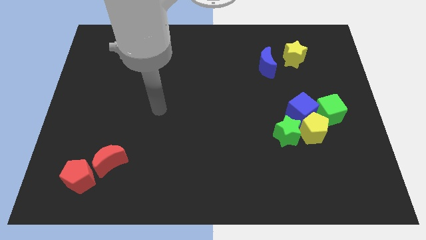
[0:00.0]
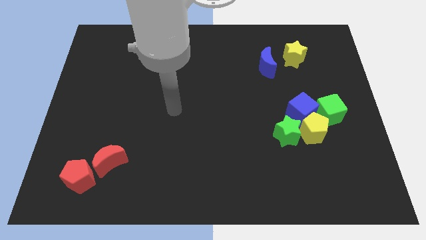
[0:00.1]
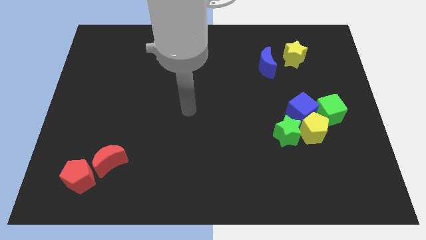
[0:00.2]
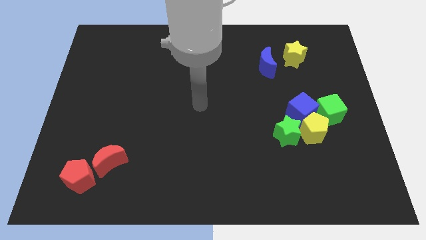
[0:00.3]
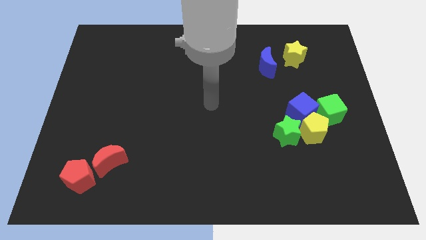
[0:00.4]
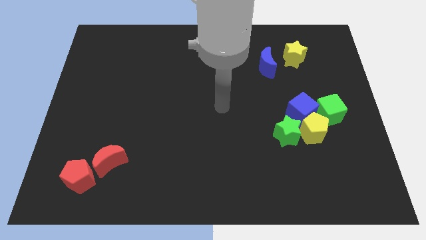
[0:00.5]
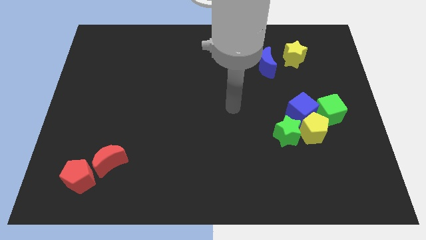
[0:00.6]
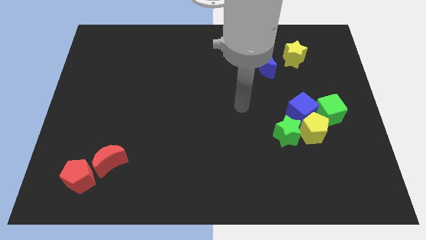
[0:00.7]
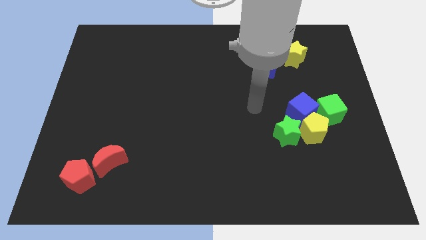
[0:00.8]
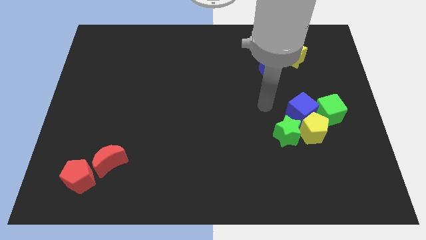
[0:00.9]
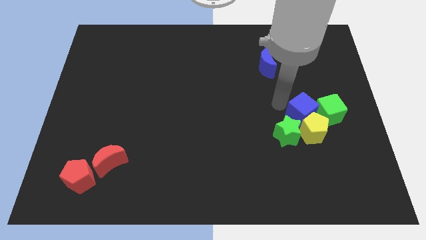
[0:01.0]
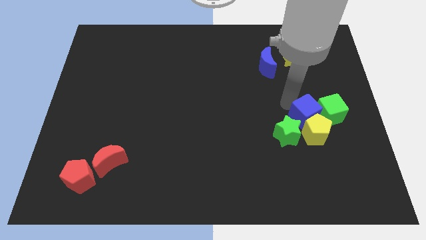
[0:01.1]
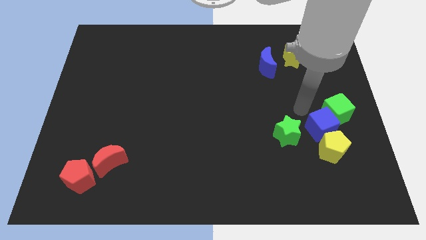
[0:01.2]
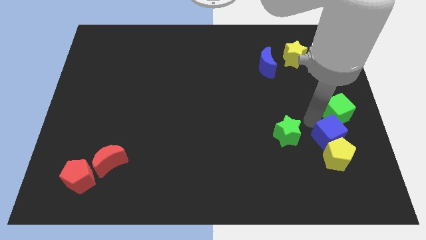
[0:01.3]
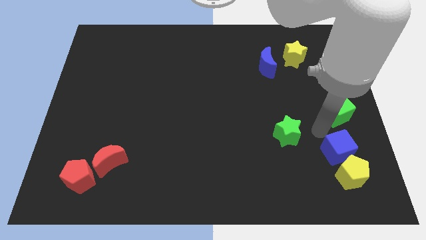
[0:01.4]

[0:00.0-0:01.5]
move the yellow pentagon away from the blue cube, green star, and green cube

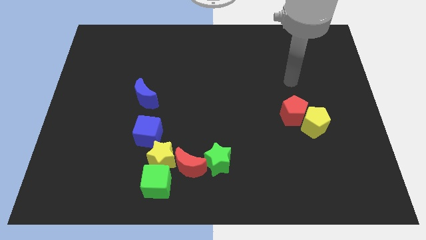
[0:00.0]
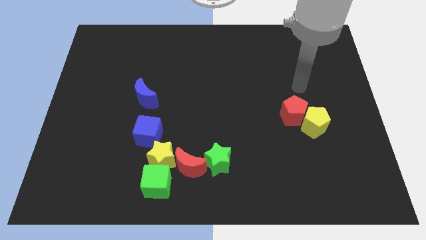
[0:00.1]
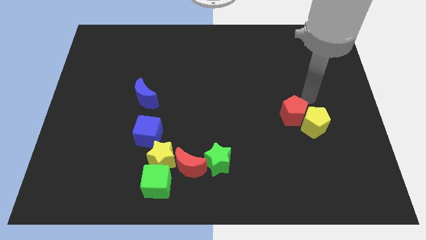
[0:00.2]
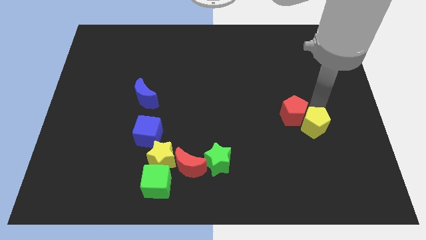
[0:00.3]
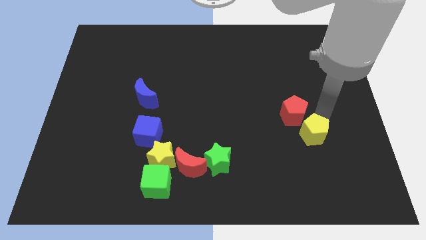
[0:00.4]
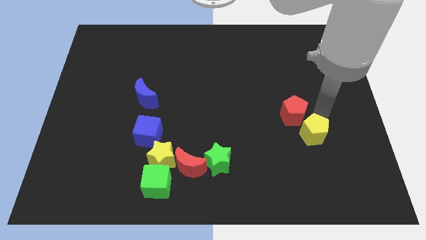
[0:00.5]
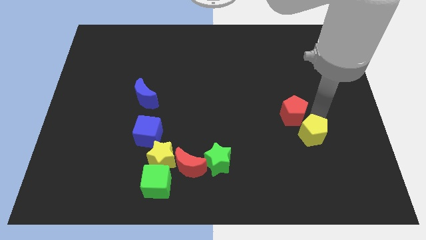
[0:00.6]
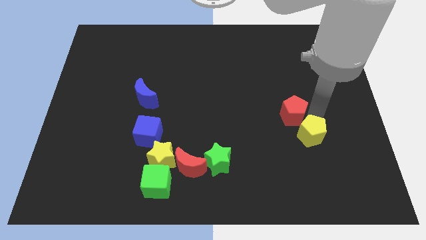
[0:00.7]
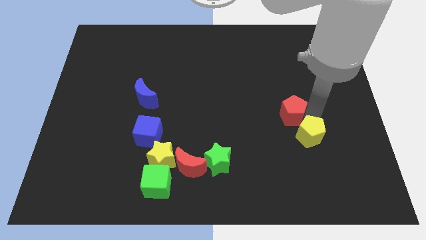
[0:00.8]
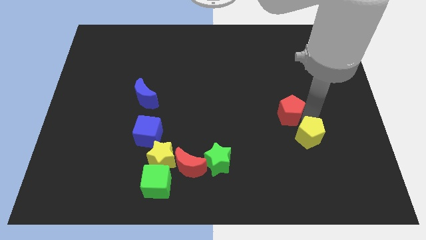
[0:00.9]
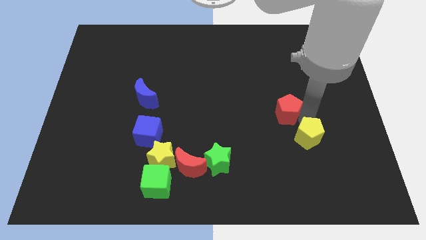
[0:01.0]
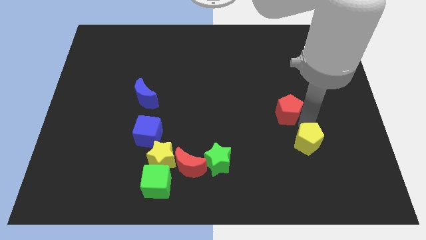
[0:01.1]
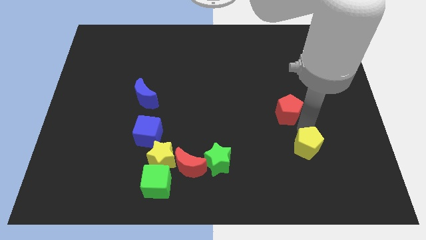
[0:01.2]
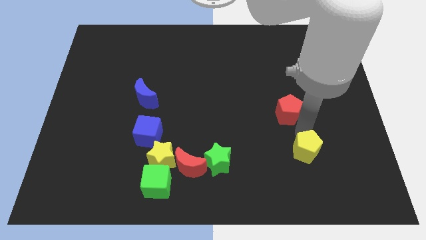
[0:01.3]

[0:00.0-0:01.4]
pull the red pentagon apart from the yellow pentagon

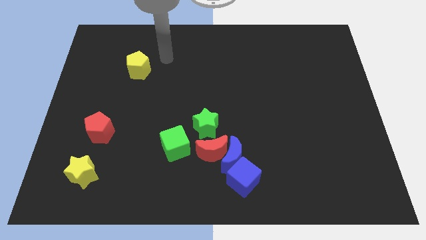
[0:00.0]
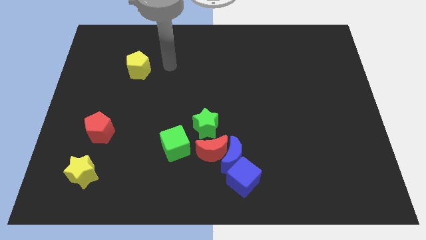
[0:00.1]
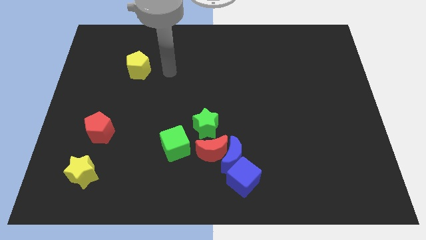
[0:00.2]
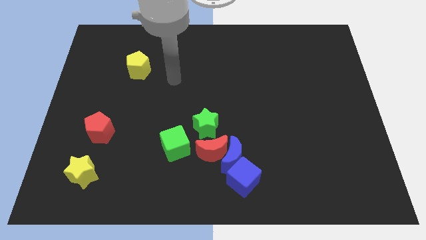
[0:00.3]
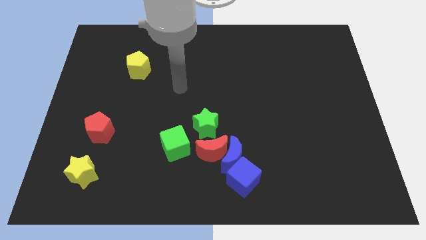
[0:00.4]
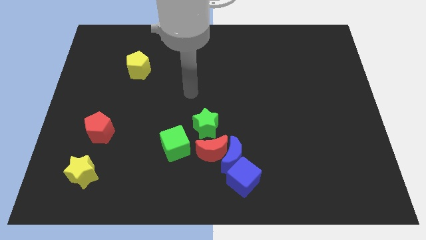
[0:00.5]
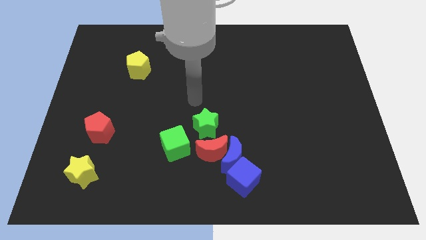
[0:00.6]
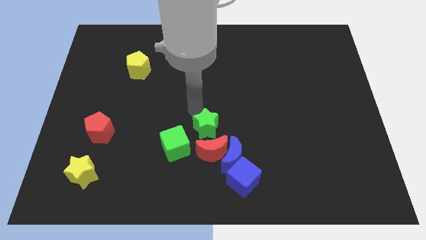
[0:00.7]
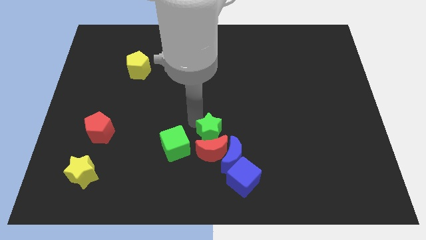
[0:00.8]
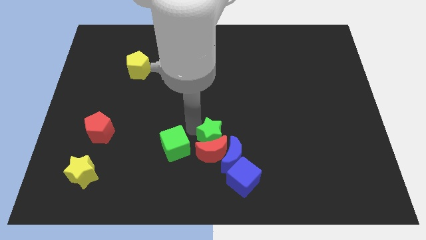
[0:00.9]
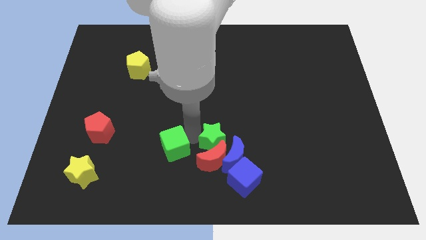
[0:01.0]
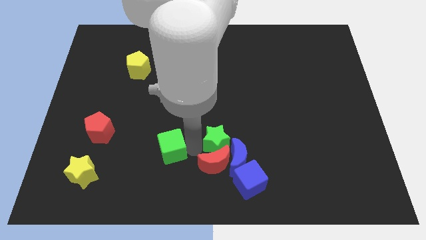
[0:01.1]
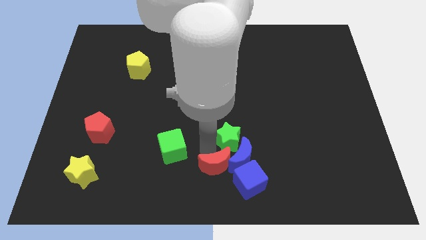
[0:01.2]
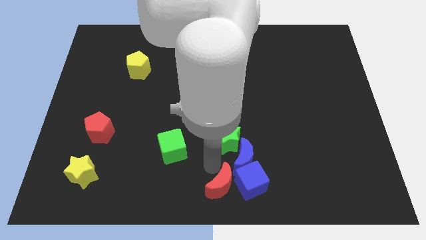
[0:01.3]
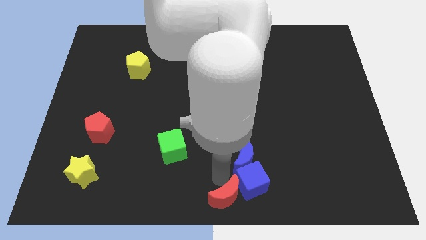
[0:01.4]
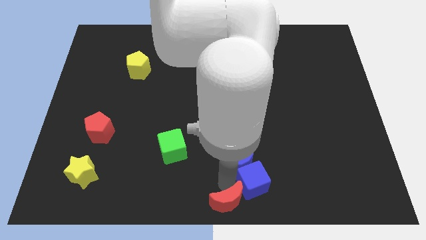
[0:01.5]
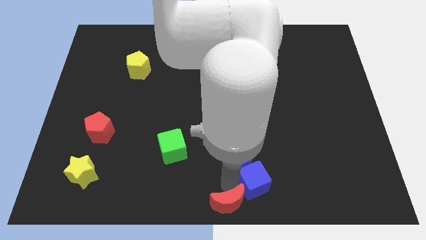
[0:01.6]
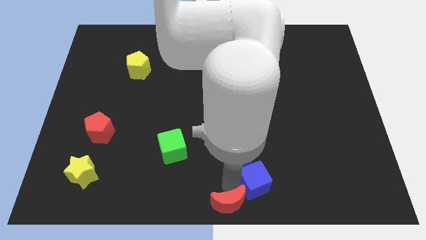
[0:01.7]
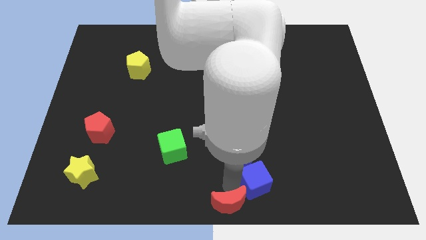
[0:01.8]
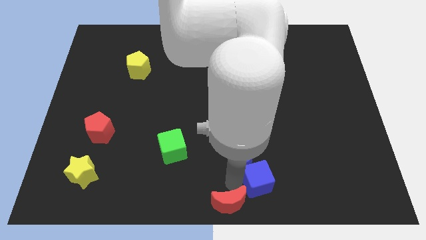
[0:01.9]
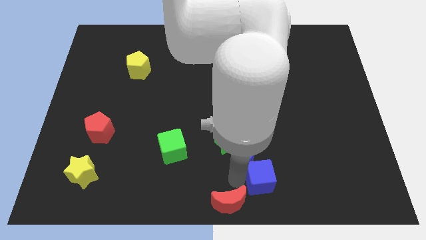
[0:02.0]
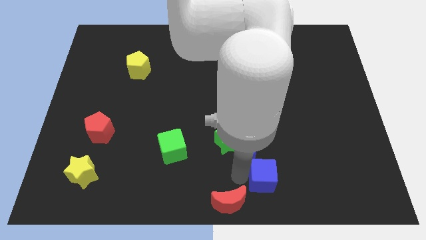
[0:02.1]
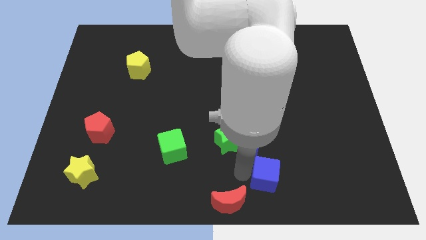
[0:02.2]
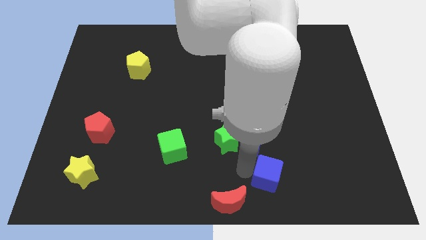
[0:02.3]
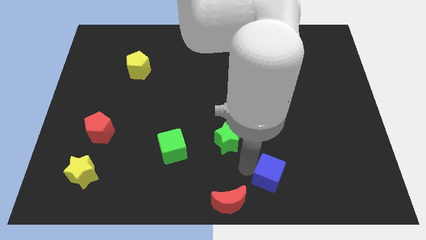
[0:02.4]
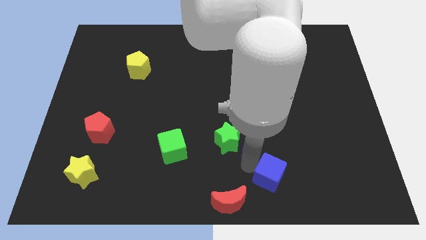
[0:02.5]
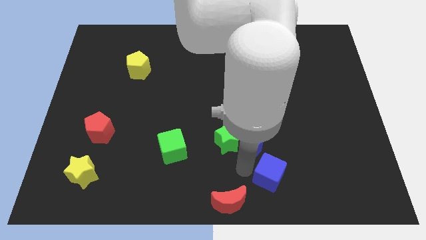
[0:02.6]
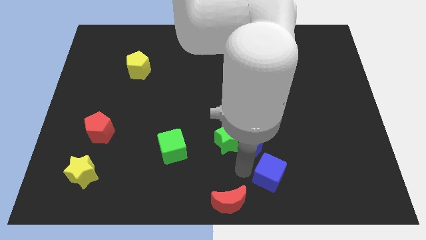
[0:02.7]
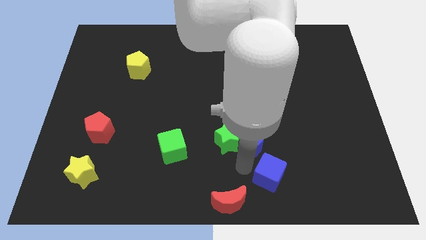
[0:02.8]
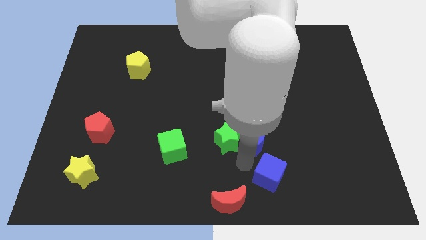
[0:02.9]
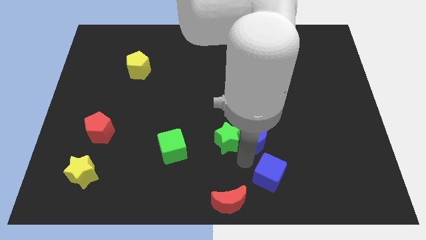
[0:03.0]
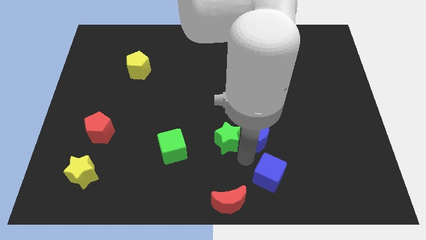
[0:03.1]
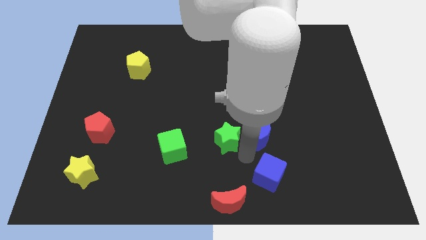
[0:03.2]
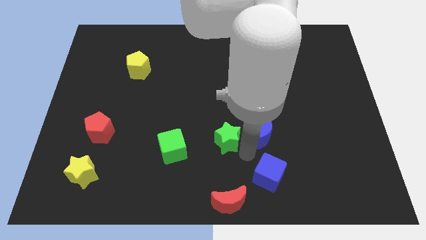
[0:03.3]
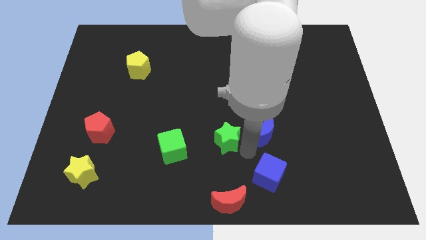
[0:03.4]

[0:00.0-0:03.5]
move the blue moon away from the group

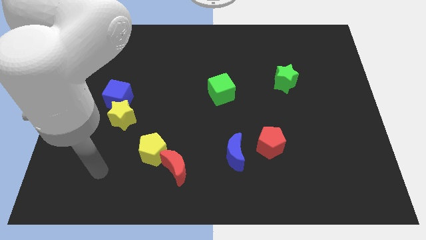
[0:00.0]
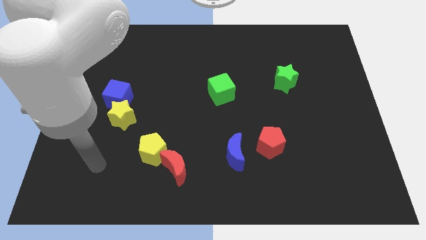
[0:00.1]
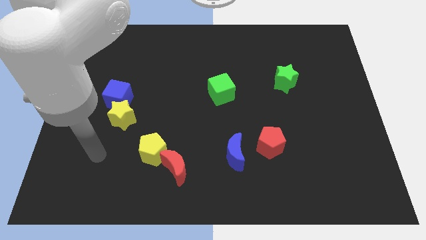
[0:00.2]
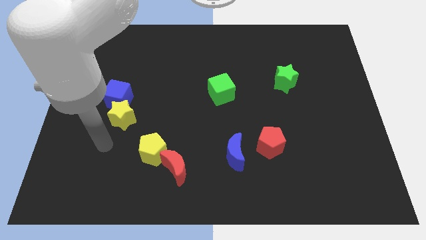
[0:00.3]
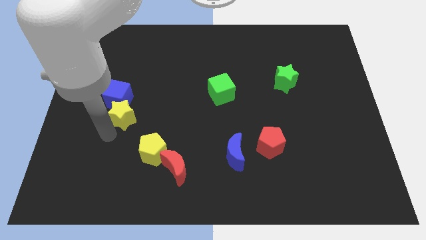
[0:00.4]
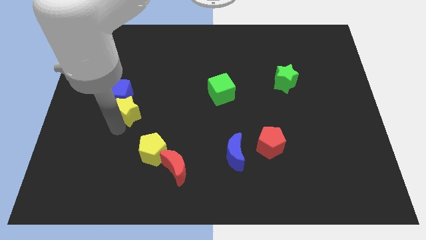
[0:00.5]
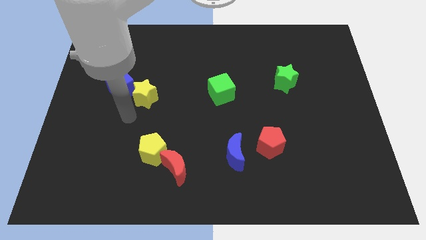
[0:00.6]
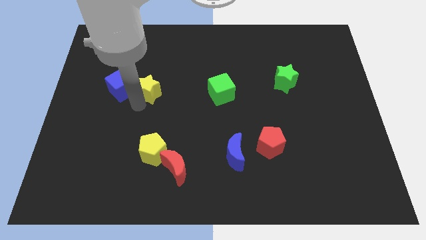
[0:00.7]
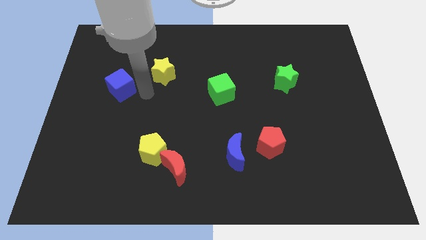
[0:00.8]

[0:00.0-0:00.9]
separate the blue cube from the yellow star

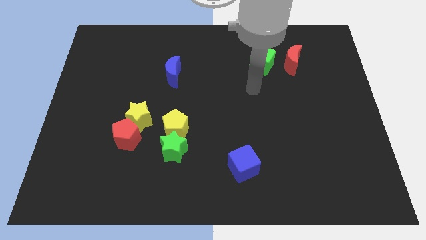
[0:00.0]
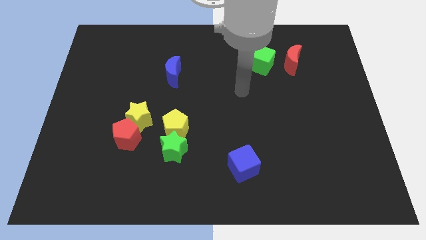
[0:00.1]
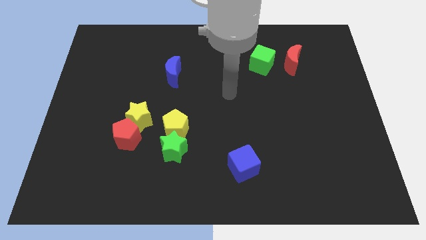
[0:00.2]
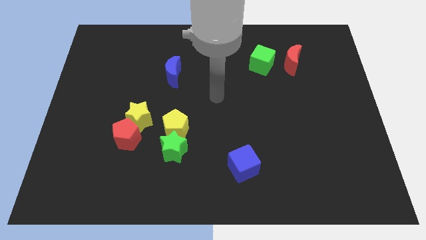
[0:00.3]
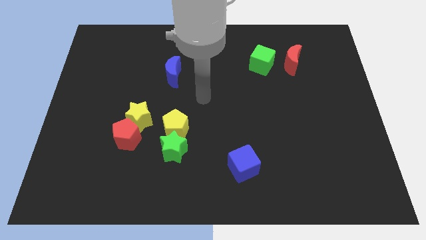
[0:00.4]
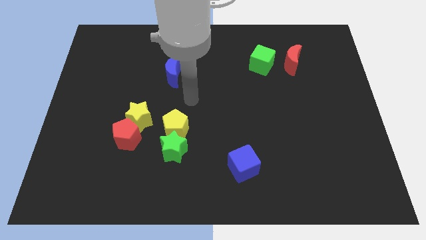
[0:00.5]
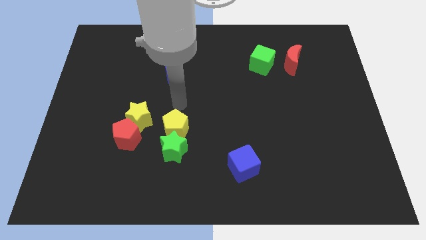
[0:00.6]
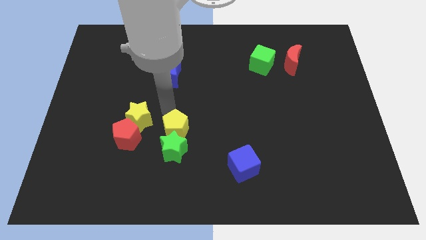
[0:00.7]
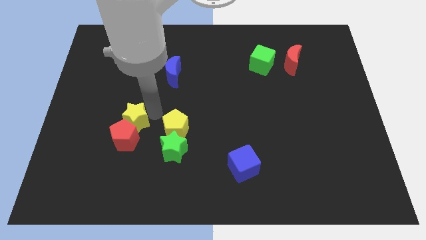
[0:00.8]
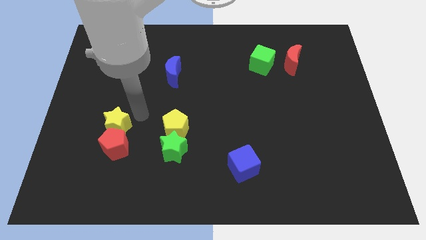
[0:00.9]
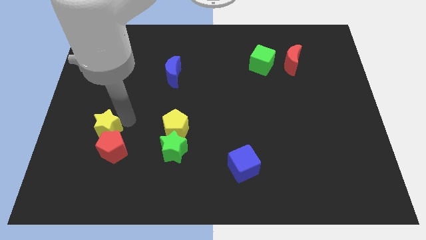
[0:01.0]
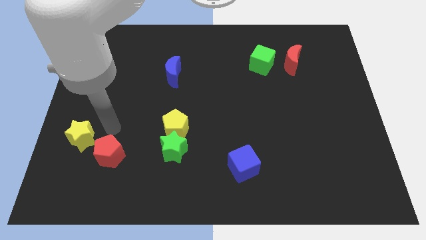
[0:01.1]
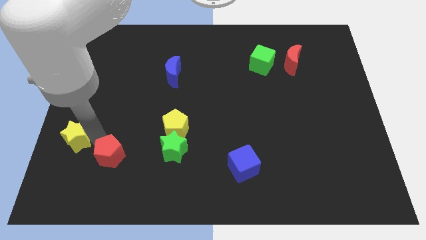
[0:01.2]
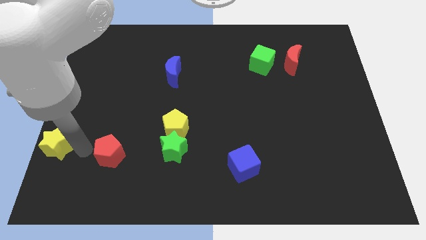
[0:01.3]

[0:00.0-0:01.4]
move the red pentagon away from the yellow star

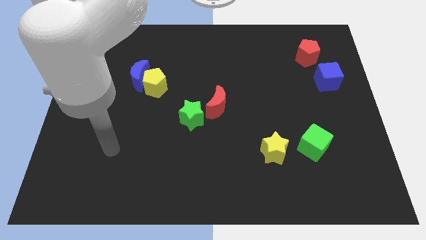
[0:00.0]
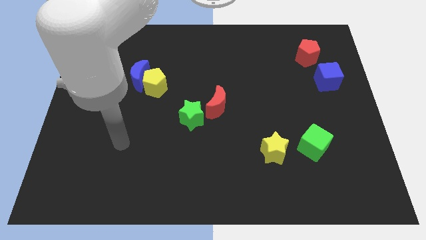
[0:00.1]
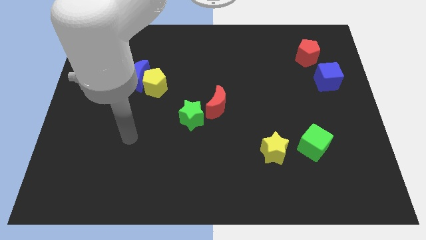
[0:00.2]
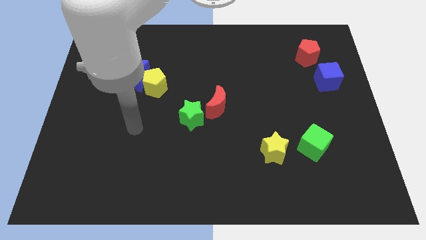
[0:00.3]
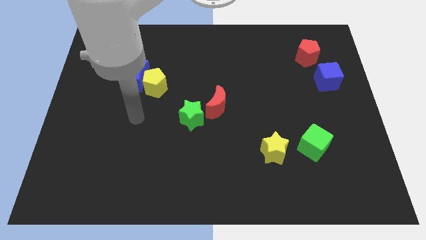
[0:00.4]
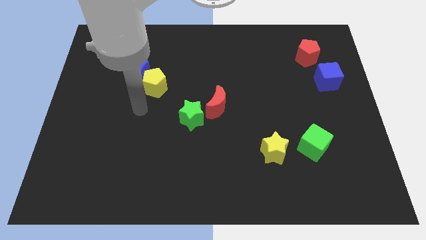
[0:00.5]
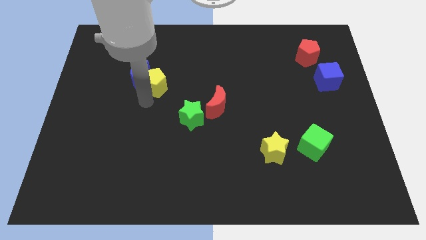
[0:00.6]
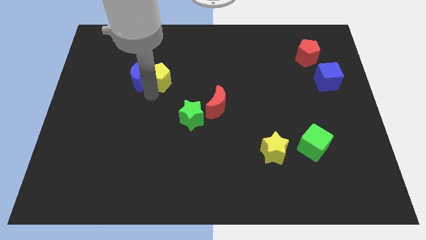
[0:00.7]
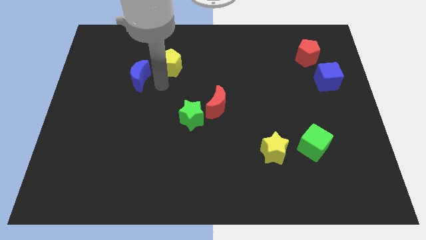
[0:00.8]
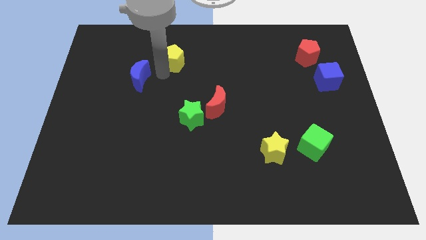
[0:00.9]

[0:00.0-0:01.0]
separate the blue moon from the yellow pentagon
